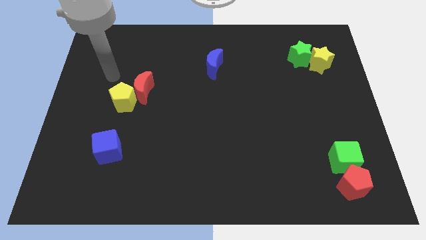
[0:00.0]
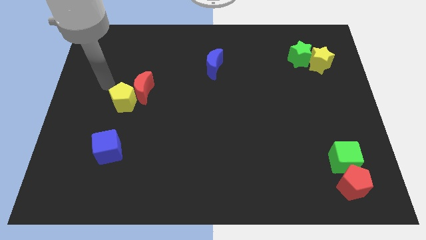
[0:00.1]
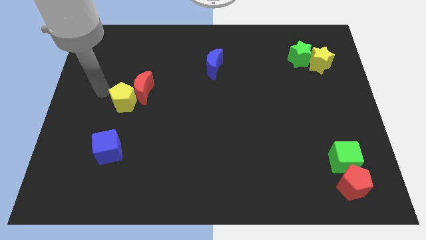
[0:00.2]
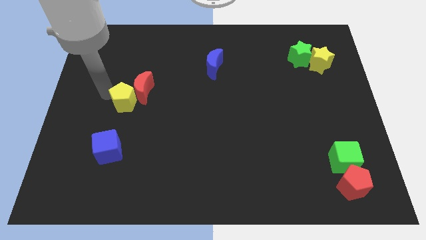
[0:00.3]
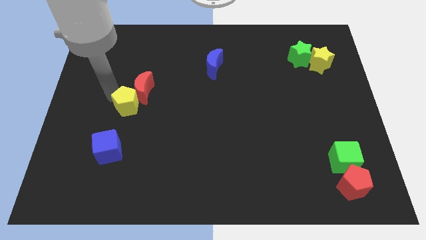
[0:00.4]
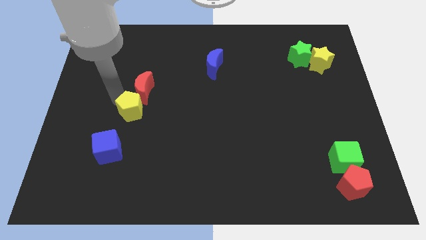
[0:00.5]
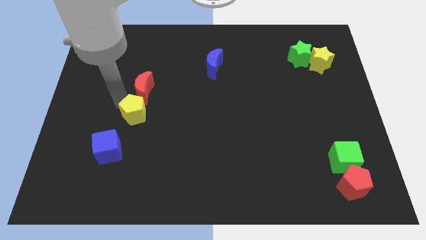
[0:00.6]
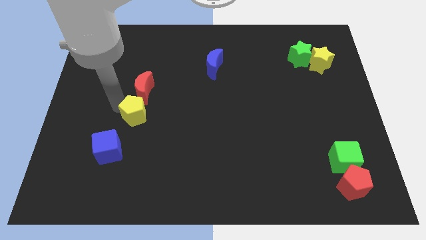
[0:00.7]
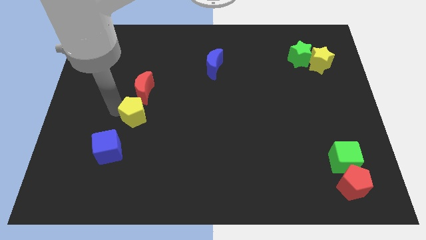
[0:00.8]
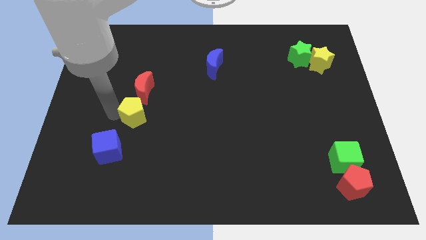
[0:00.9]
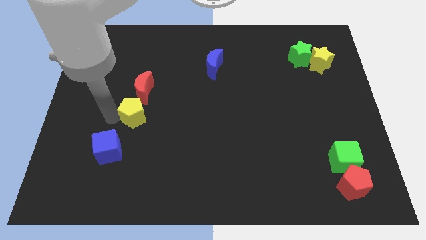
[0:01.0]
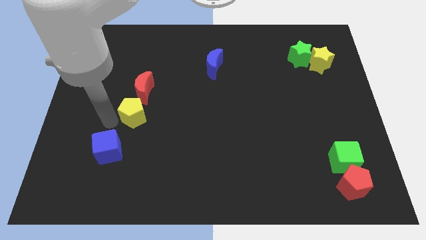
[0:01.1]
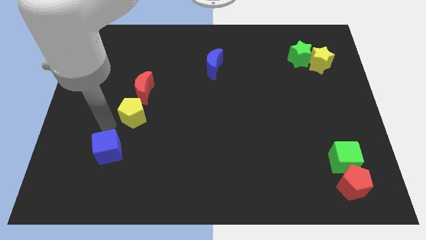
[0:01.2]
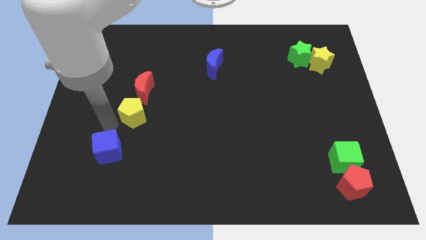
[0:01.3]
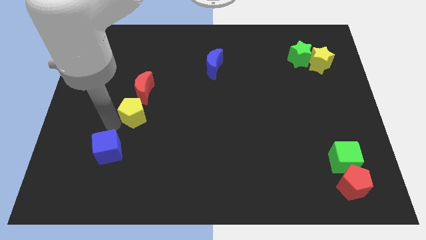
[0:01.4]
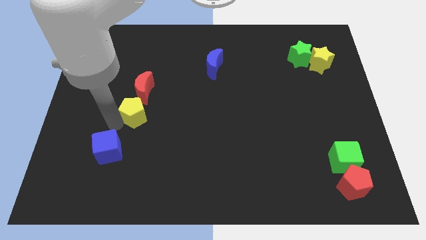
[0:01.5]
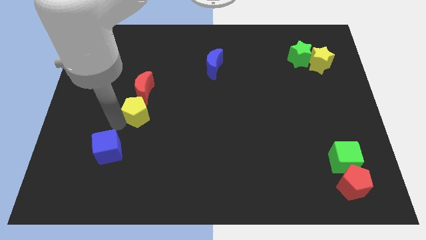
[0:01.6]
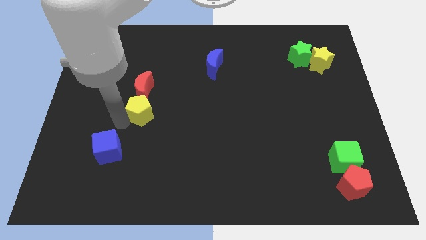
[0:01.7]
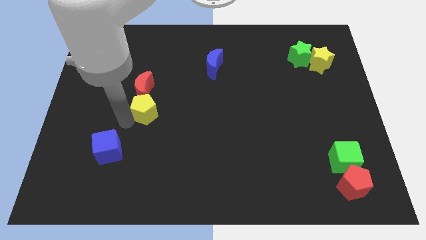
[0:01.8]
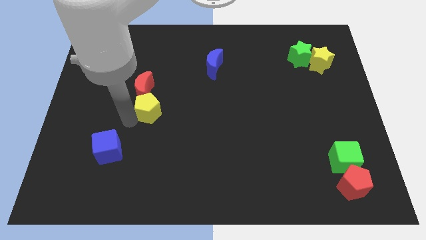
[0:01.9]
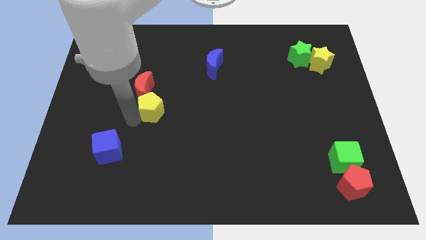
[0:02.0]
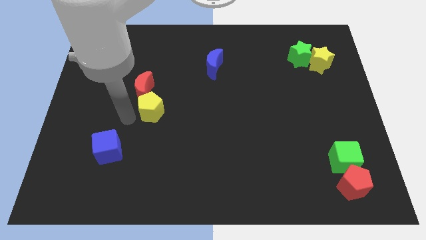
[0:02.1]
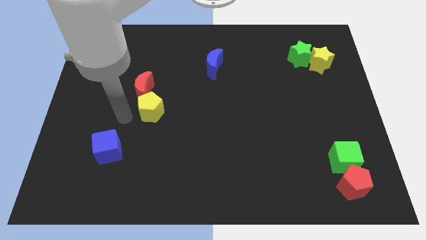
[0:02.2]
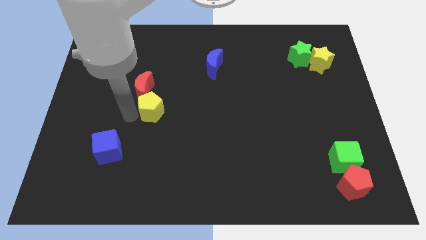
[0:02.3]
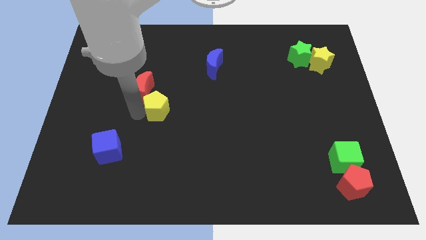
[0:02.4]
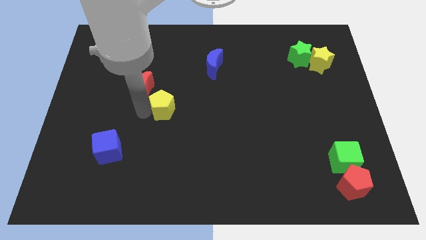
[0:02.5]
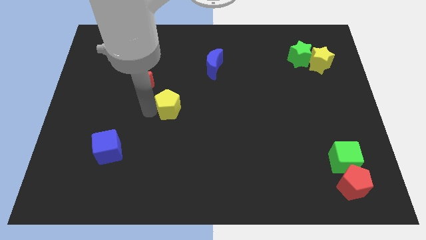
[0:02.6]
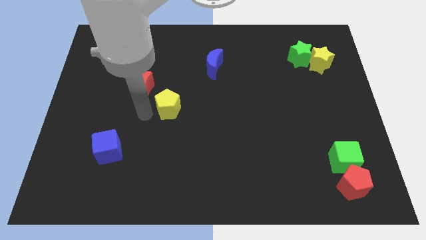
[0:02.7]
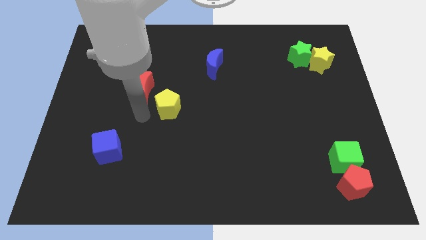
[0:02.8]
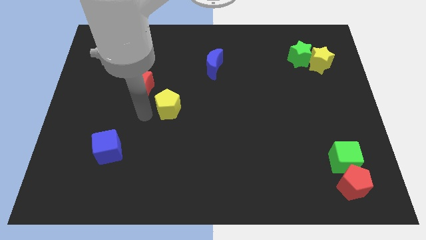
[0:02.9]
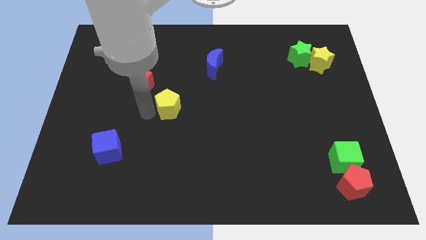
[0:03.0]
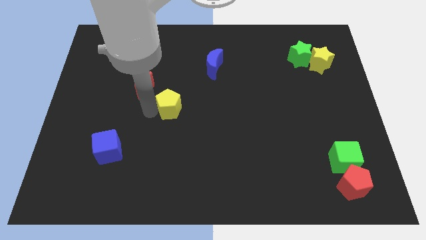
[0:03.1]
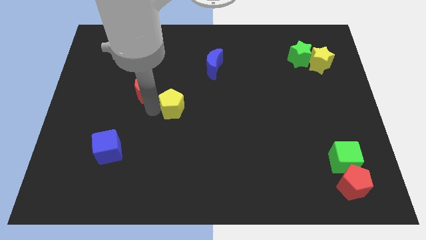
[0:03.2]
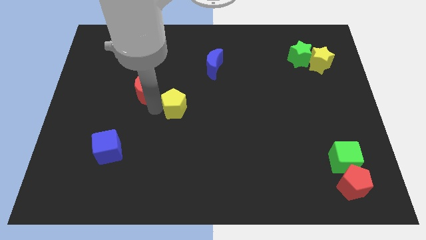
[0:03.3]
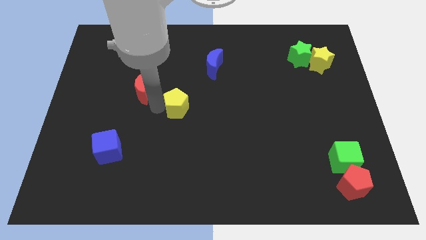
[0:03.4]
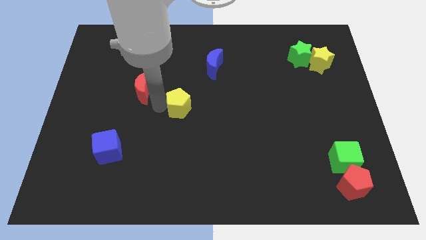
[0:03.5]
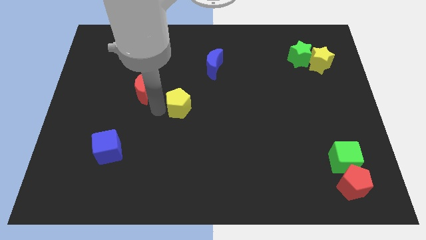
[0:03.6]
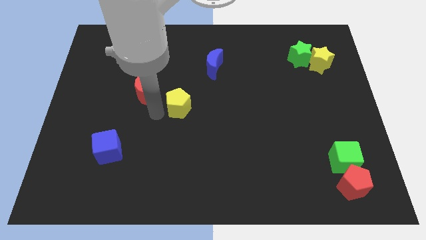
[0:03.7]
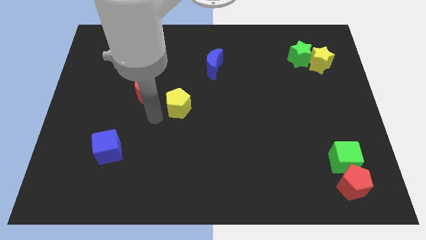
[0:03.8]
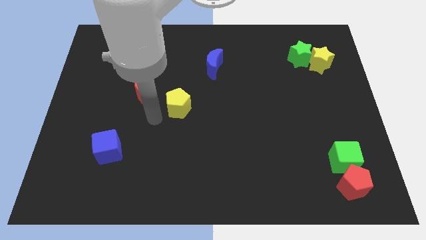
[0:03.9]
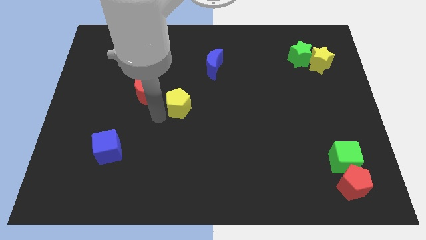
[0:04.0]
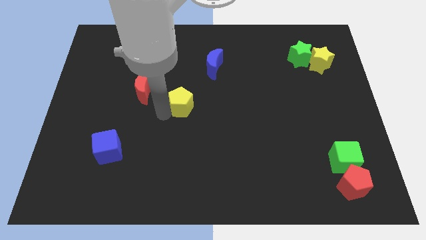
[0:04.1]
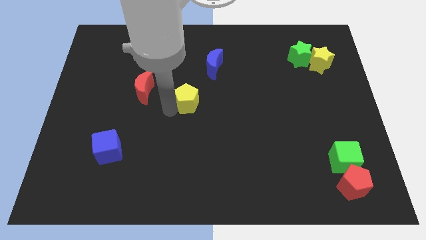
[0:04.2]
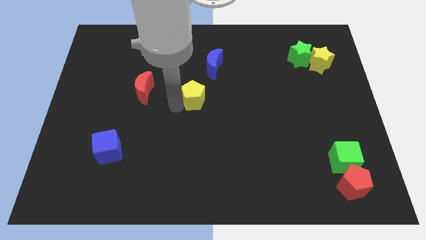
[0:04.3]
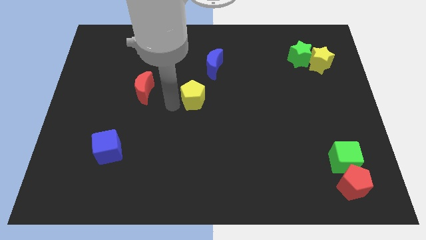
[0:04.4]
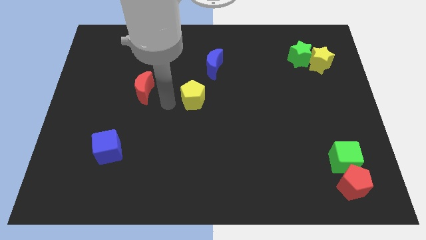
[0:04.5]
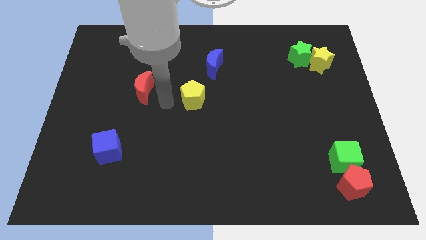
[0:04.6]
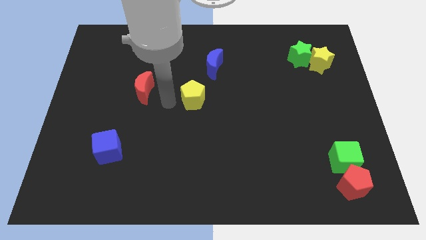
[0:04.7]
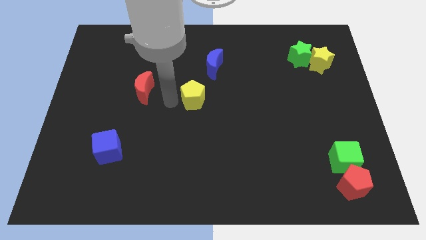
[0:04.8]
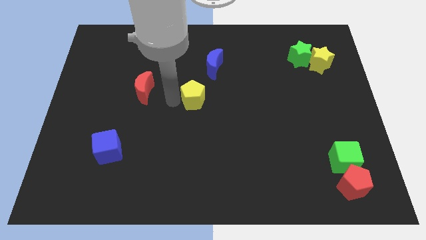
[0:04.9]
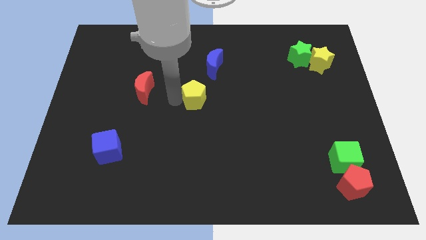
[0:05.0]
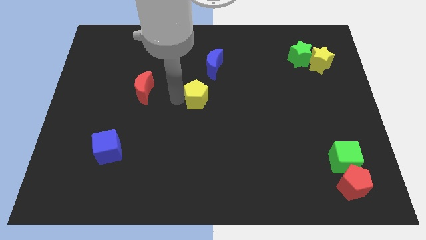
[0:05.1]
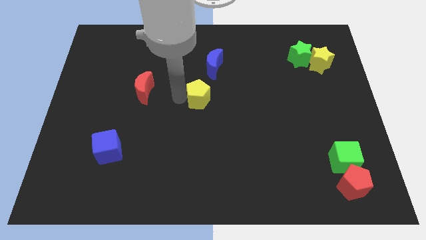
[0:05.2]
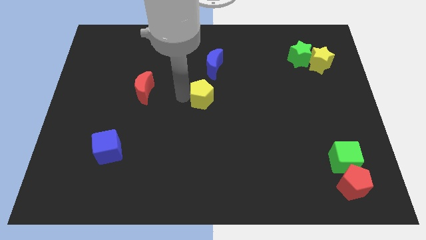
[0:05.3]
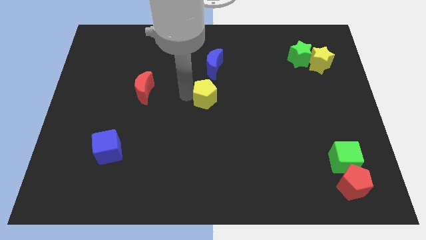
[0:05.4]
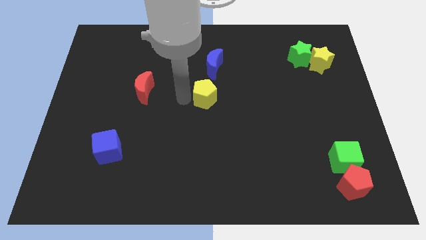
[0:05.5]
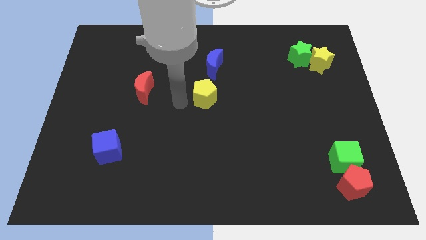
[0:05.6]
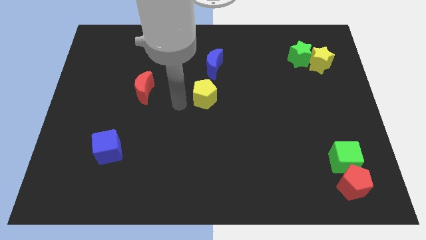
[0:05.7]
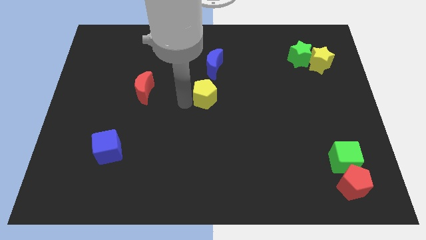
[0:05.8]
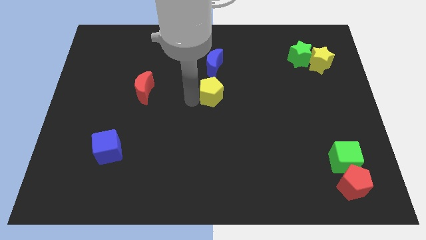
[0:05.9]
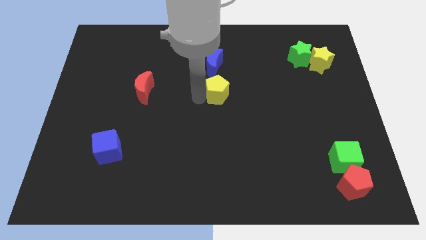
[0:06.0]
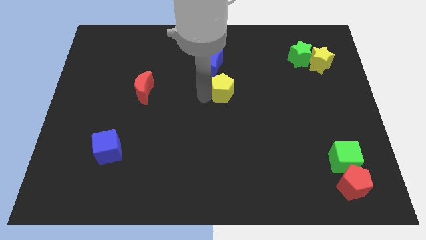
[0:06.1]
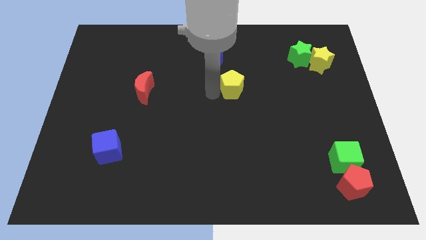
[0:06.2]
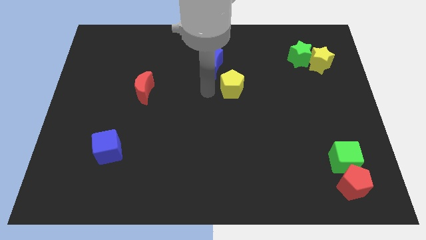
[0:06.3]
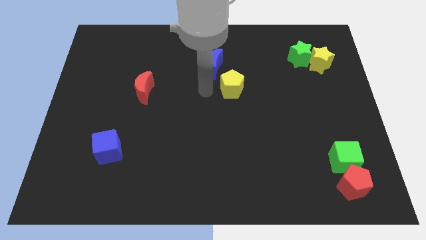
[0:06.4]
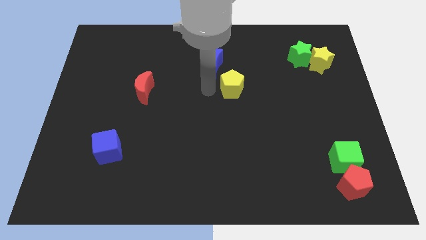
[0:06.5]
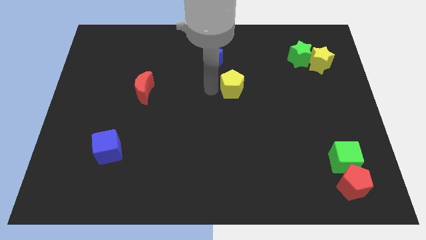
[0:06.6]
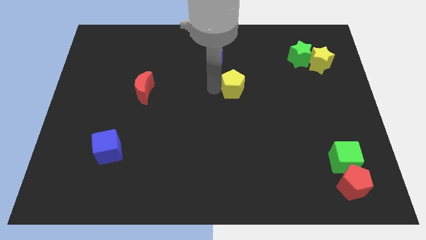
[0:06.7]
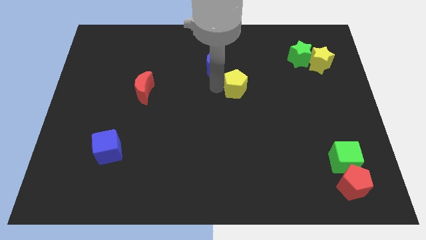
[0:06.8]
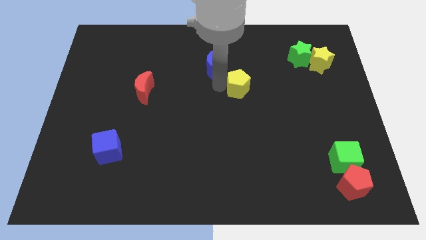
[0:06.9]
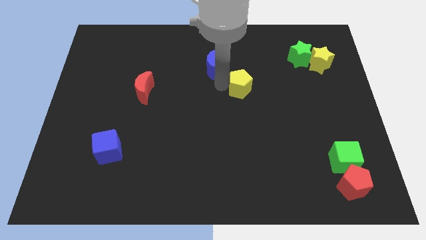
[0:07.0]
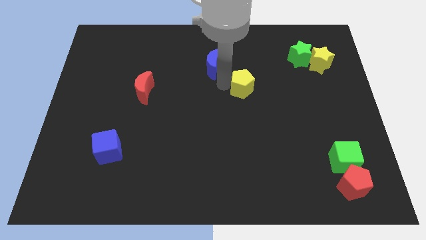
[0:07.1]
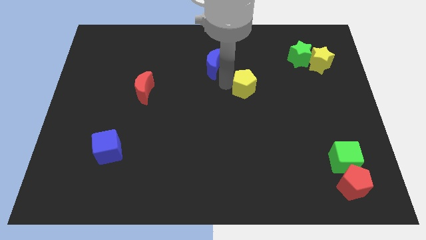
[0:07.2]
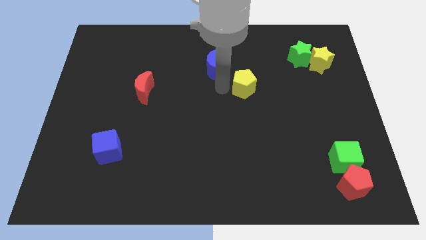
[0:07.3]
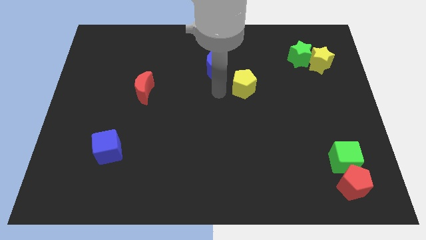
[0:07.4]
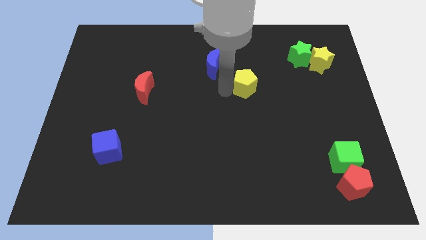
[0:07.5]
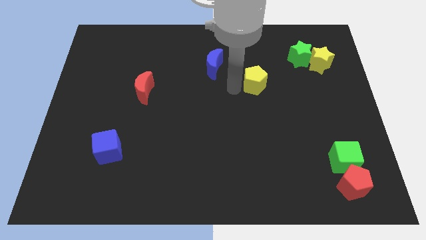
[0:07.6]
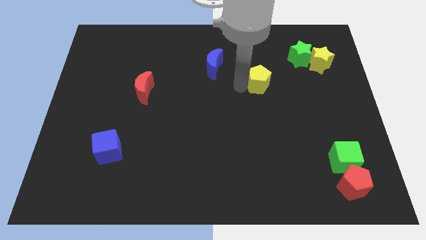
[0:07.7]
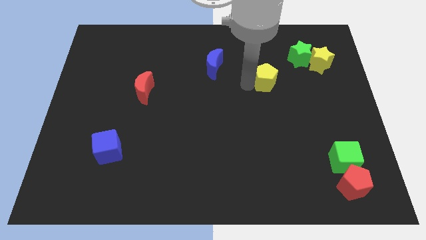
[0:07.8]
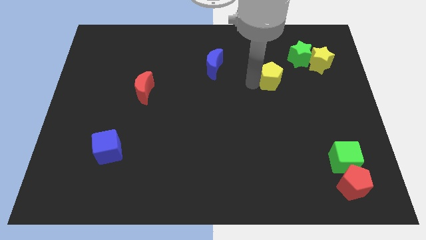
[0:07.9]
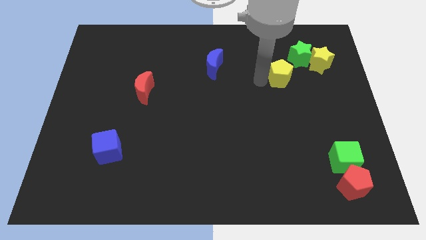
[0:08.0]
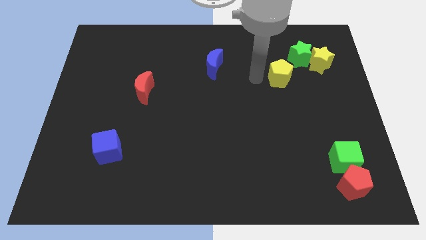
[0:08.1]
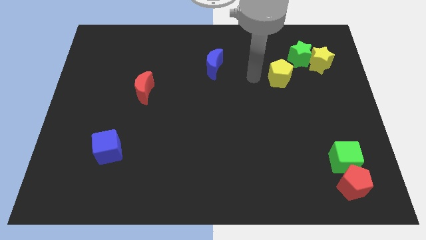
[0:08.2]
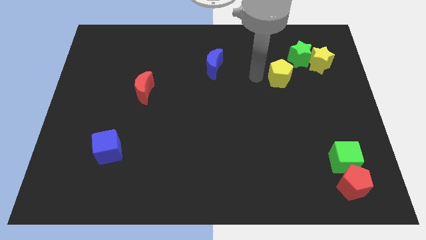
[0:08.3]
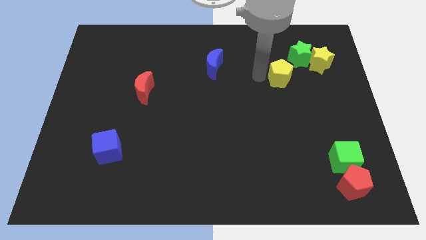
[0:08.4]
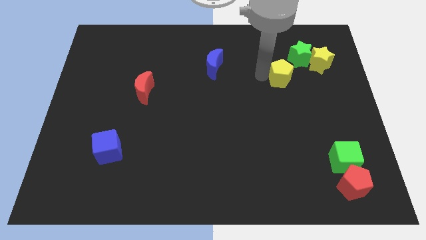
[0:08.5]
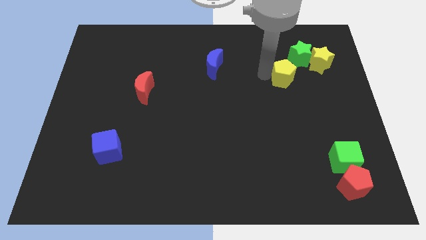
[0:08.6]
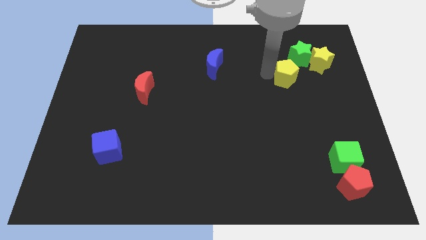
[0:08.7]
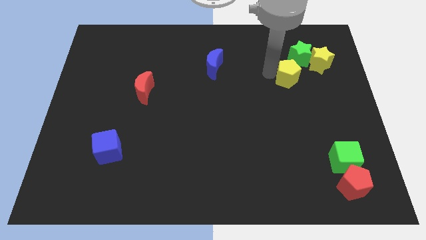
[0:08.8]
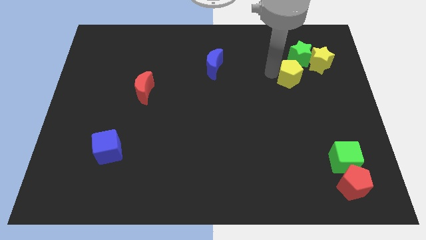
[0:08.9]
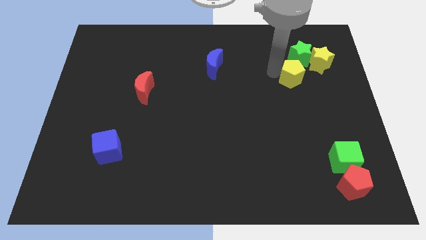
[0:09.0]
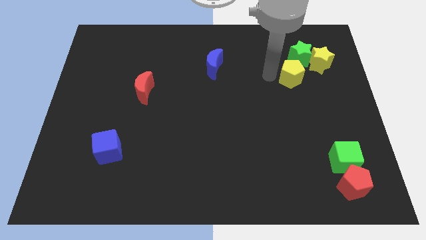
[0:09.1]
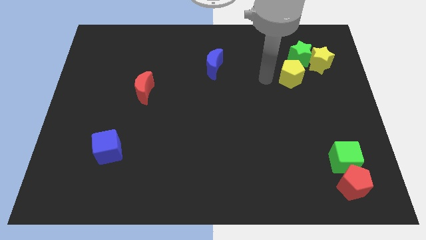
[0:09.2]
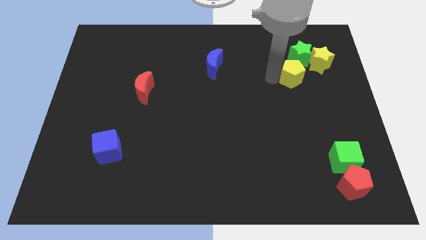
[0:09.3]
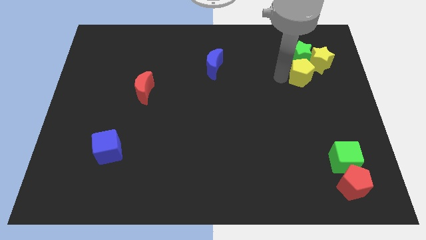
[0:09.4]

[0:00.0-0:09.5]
move the yellow pentagon diagonally down and to the right of the green star
